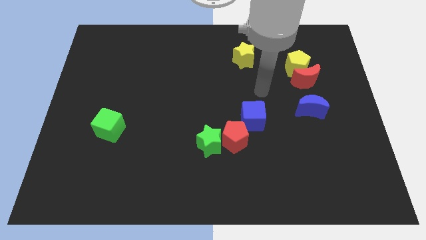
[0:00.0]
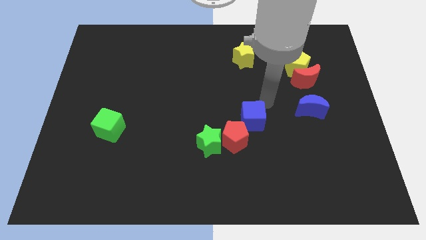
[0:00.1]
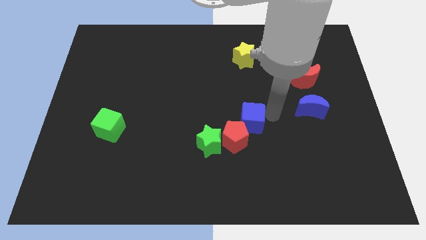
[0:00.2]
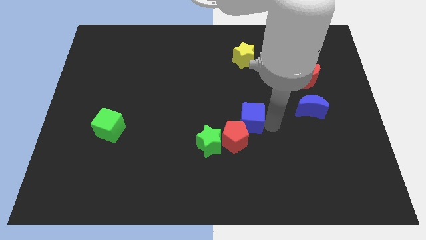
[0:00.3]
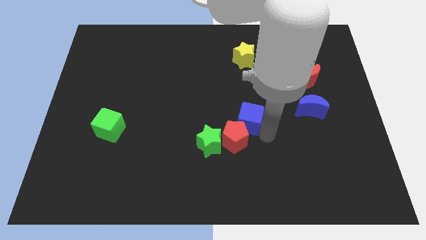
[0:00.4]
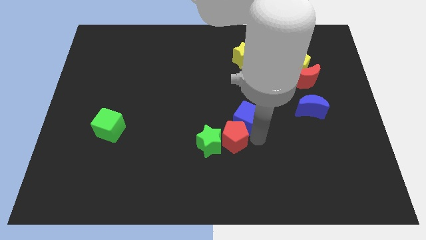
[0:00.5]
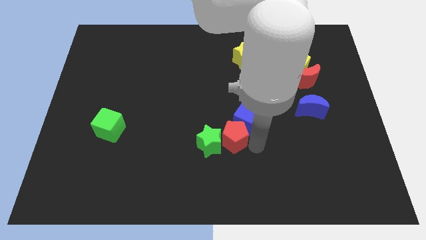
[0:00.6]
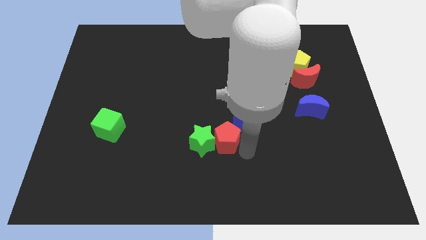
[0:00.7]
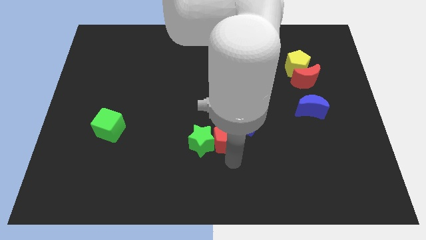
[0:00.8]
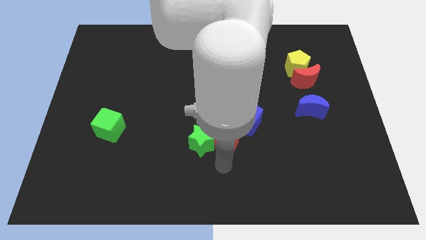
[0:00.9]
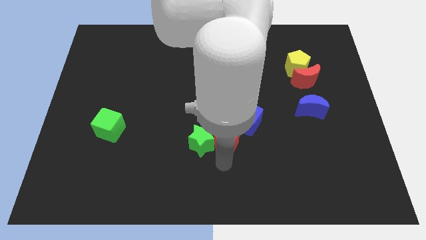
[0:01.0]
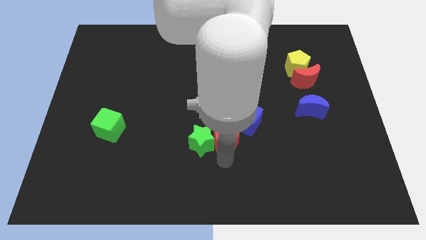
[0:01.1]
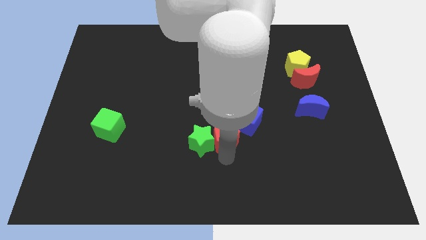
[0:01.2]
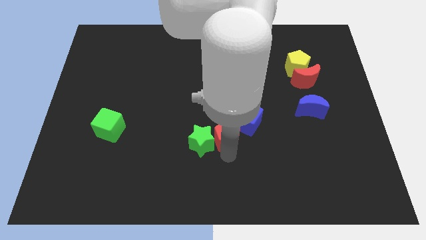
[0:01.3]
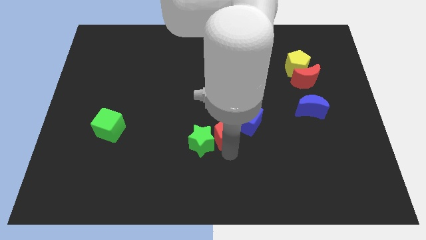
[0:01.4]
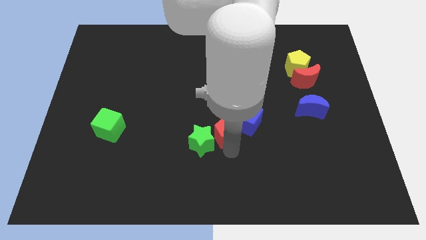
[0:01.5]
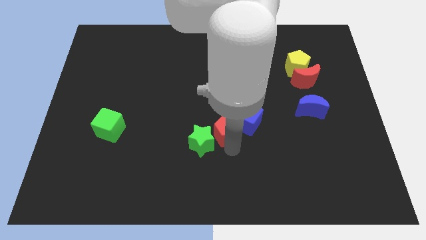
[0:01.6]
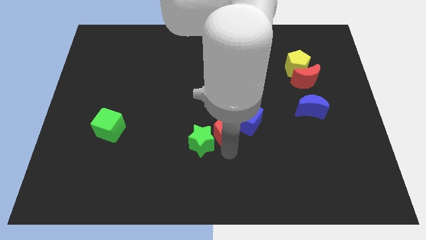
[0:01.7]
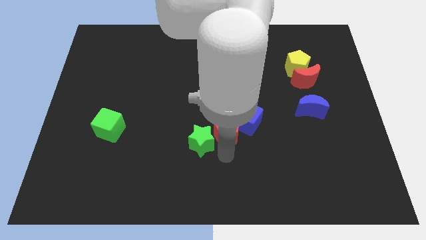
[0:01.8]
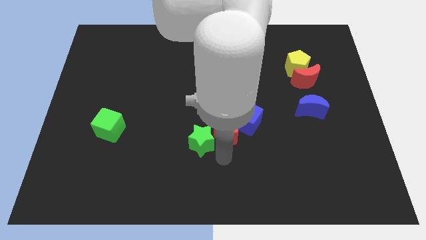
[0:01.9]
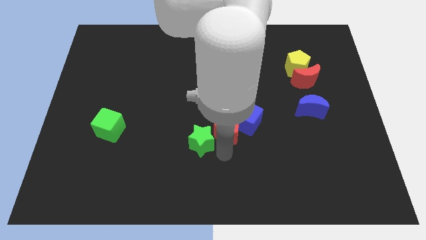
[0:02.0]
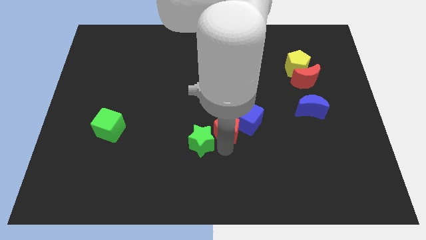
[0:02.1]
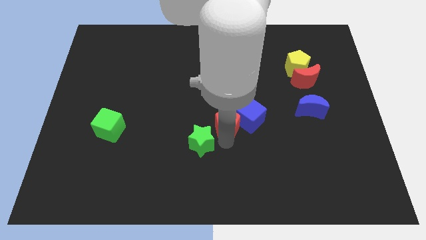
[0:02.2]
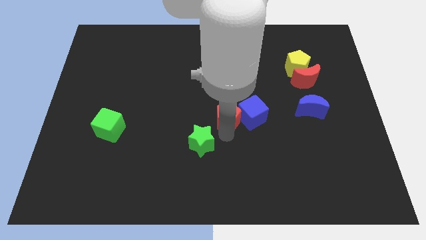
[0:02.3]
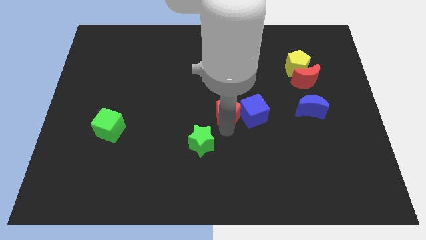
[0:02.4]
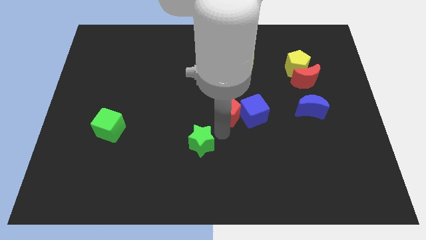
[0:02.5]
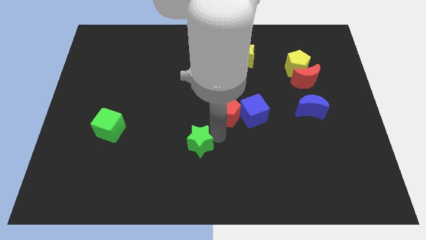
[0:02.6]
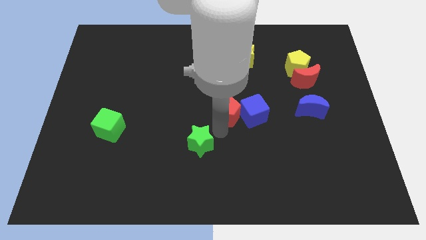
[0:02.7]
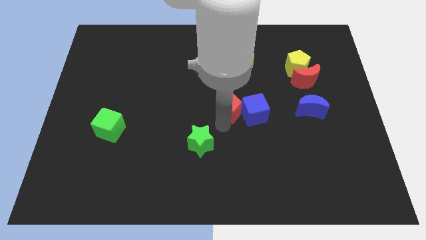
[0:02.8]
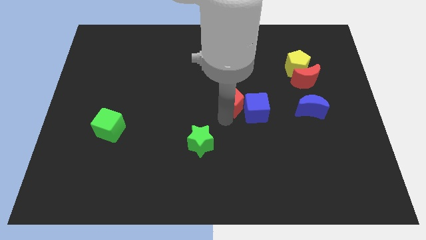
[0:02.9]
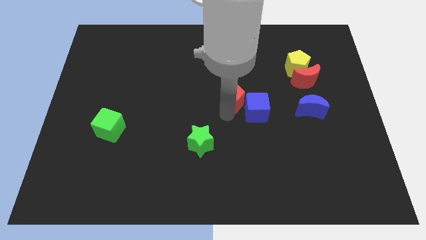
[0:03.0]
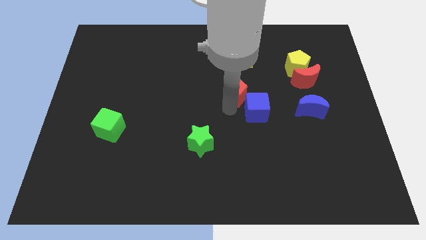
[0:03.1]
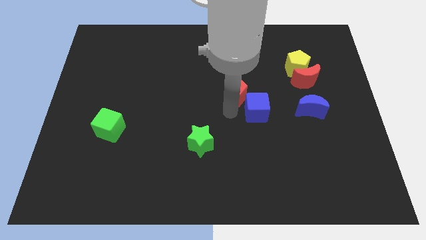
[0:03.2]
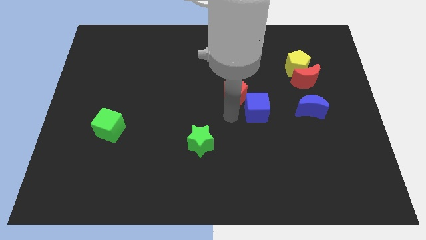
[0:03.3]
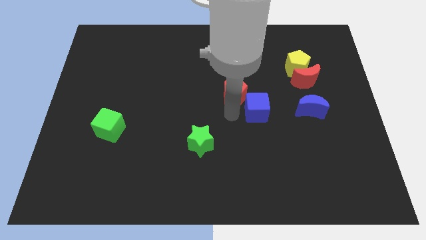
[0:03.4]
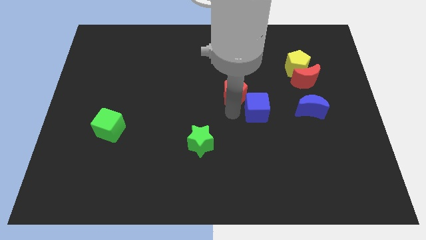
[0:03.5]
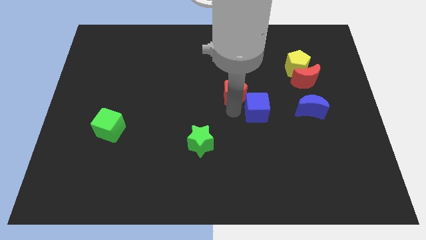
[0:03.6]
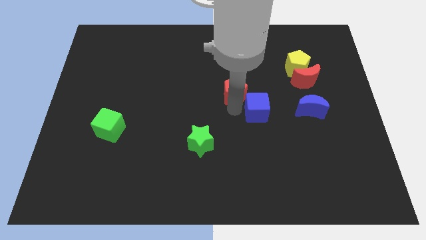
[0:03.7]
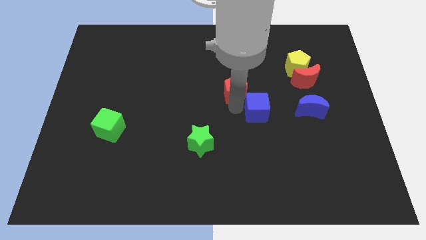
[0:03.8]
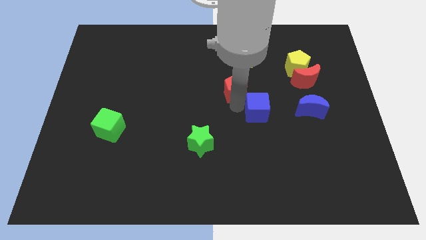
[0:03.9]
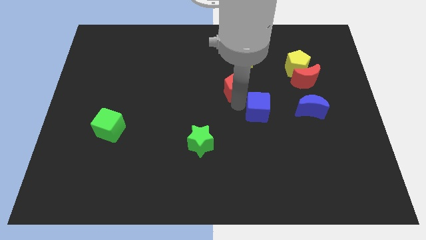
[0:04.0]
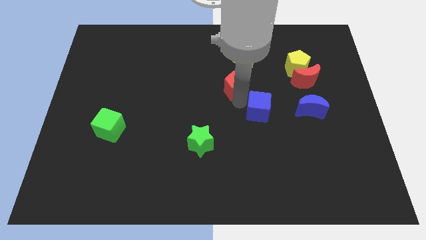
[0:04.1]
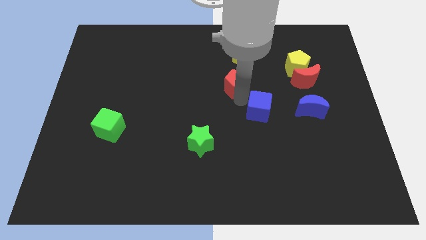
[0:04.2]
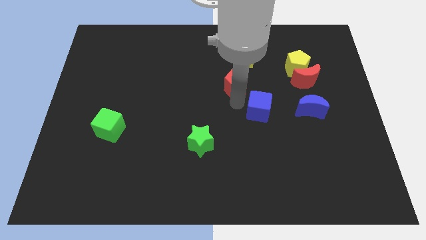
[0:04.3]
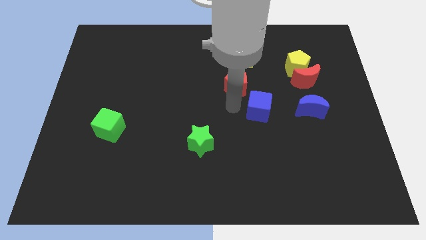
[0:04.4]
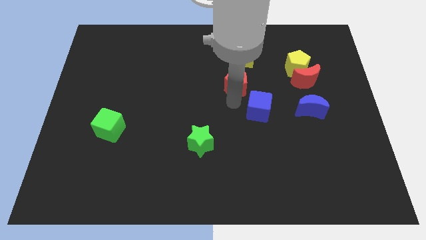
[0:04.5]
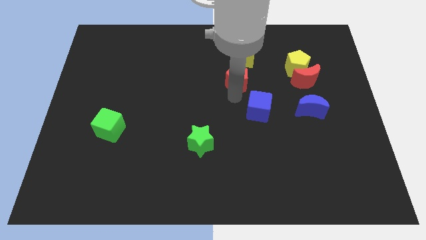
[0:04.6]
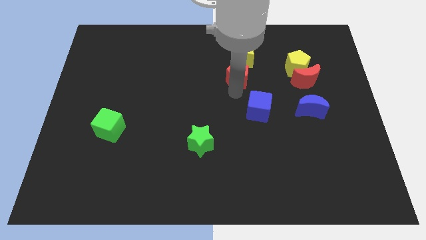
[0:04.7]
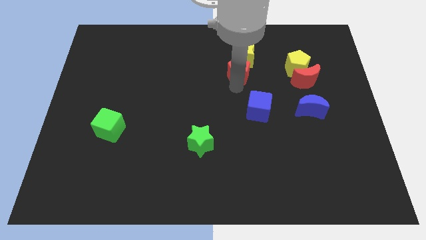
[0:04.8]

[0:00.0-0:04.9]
push the red pentagon close to the yellow star

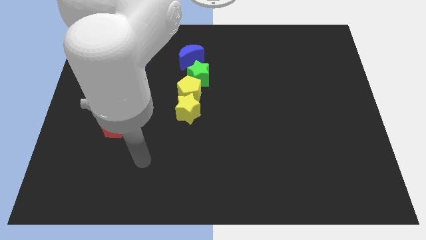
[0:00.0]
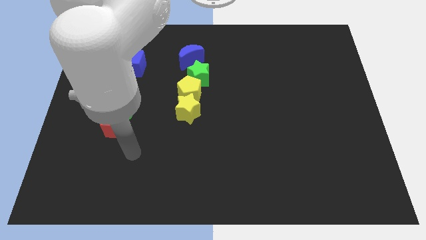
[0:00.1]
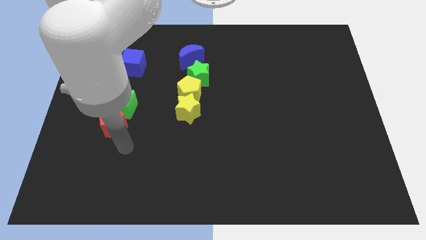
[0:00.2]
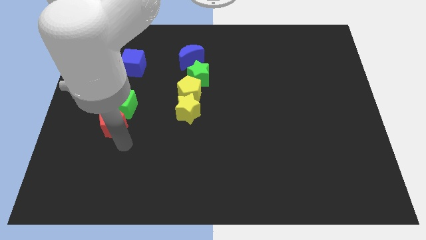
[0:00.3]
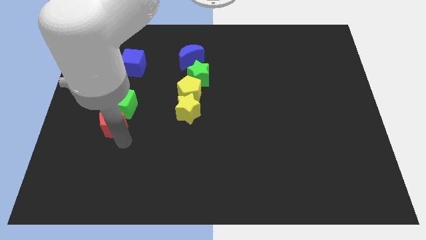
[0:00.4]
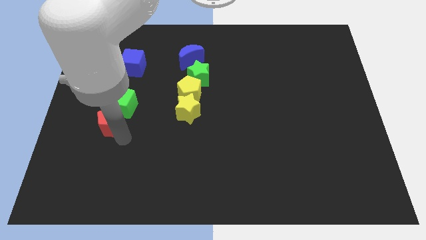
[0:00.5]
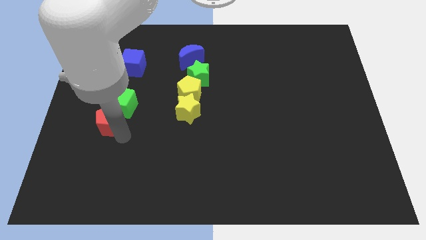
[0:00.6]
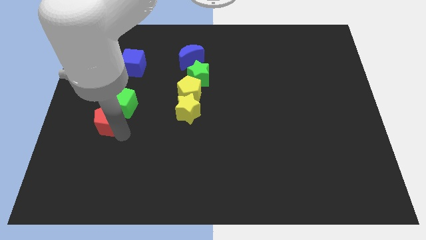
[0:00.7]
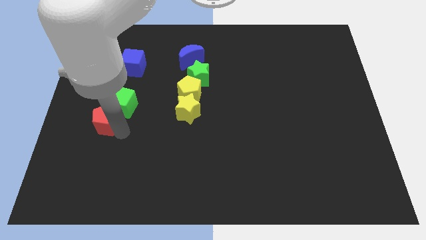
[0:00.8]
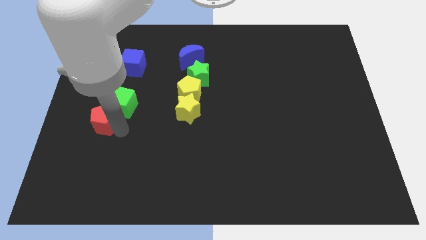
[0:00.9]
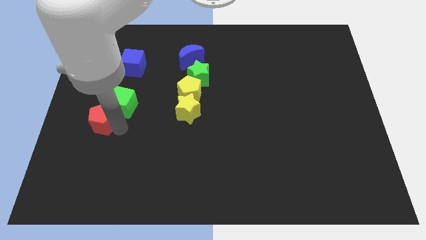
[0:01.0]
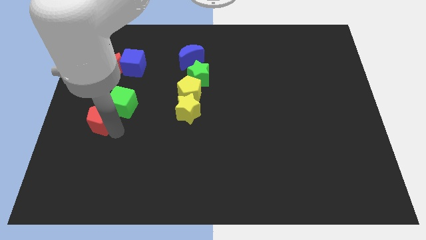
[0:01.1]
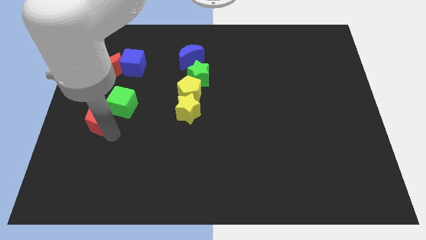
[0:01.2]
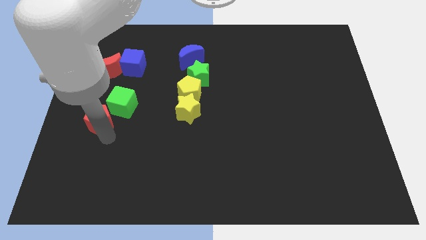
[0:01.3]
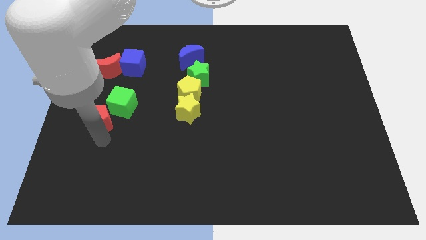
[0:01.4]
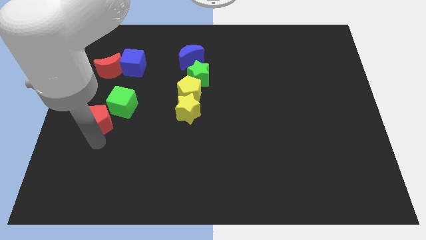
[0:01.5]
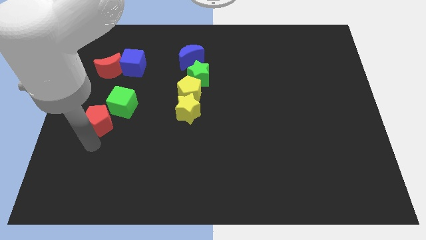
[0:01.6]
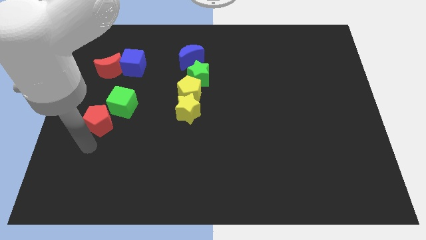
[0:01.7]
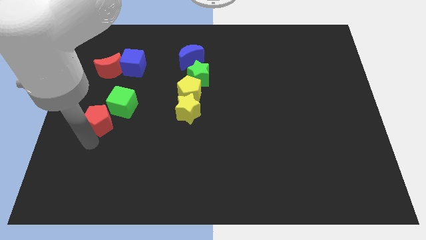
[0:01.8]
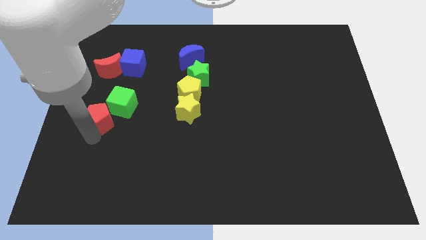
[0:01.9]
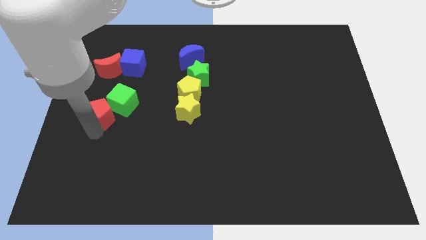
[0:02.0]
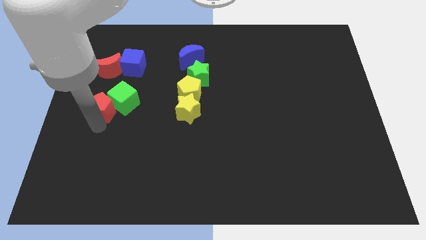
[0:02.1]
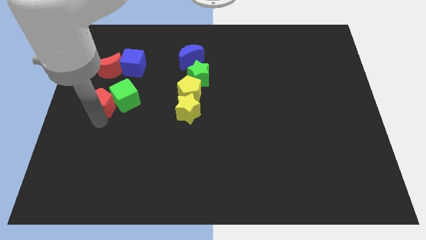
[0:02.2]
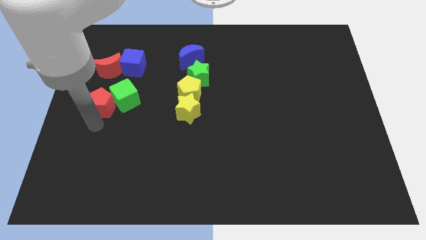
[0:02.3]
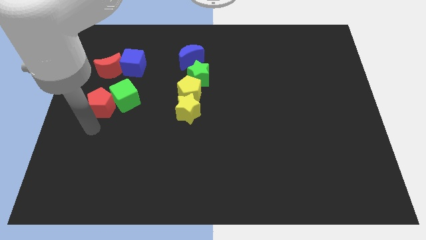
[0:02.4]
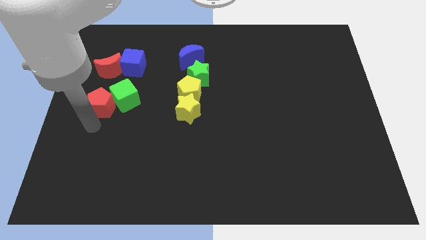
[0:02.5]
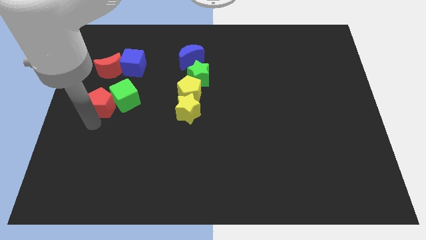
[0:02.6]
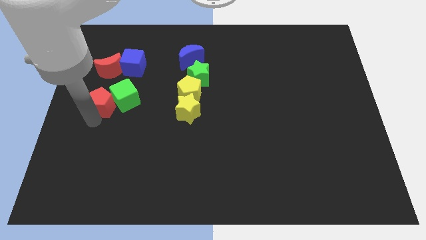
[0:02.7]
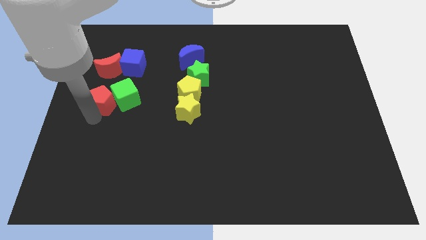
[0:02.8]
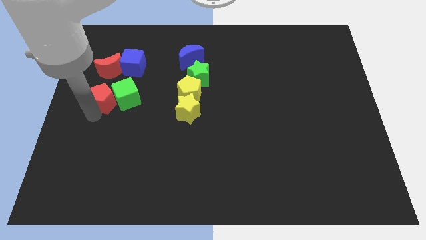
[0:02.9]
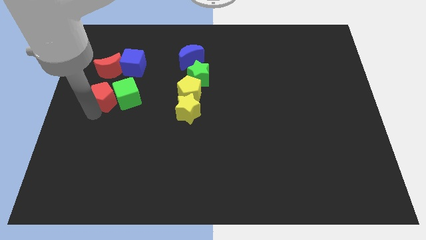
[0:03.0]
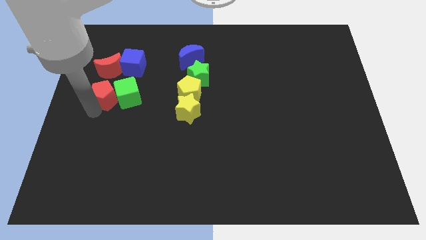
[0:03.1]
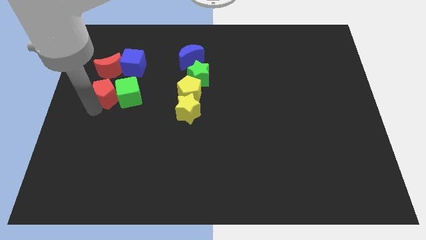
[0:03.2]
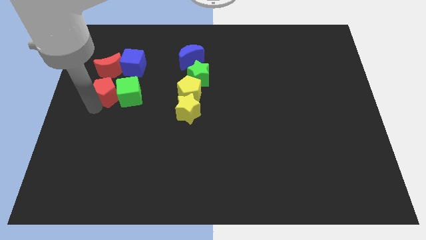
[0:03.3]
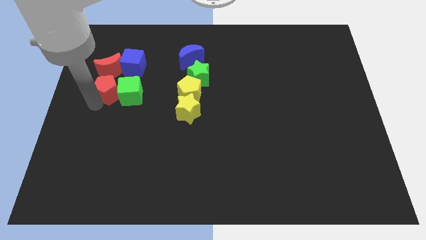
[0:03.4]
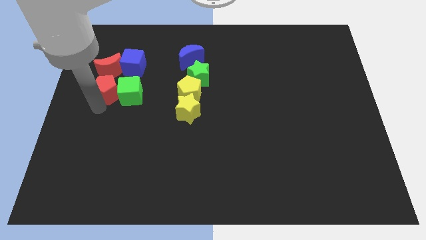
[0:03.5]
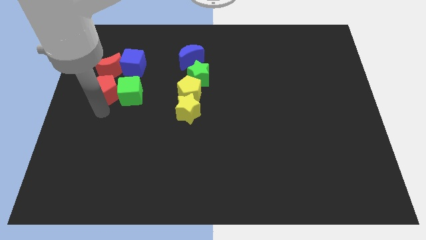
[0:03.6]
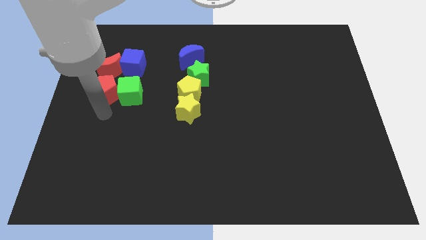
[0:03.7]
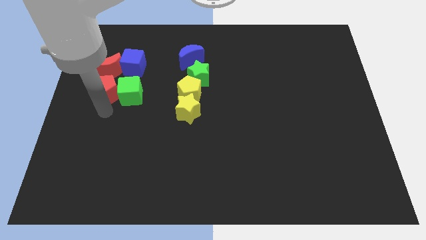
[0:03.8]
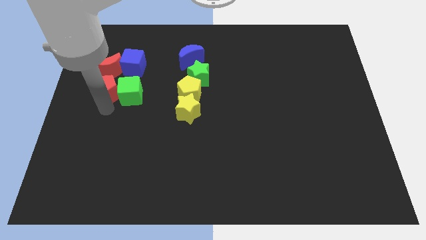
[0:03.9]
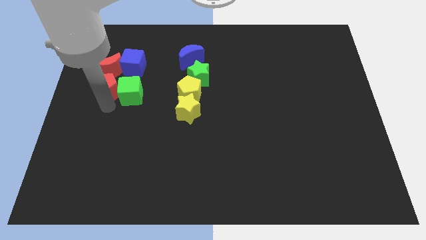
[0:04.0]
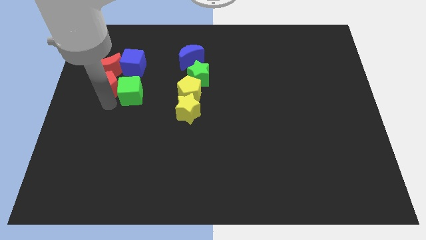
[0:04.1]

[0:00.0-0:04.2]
slide the red pentagon towards the red moon
